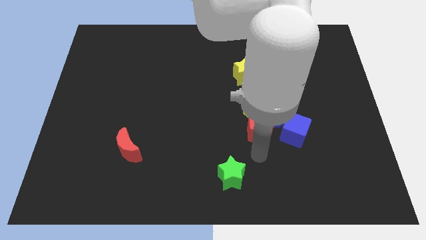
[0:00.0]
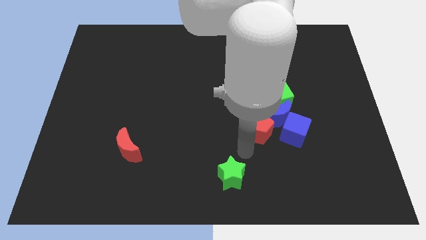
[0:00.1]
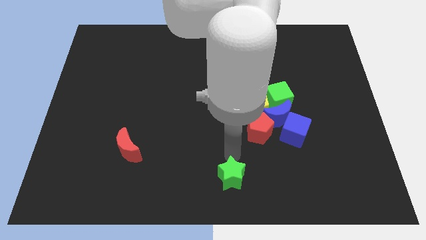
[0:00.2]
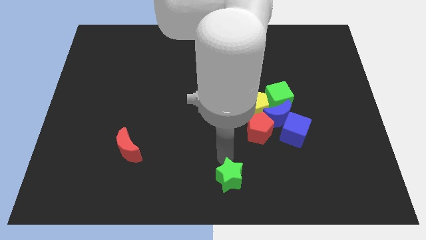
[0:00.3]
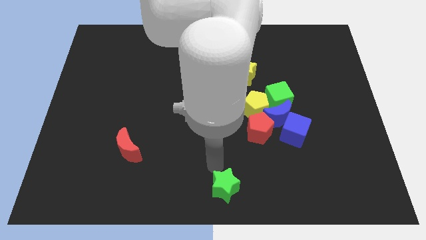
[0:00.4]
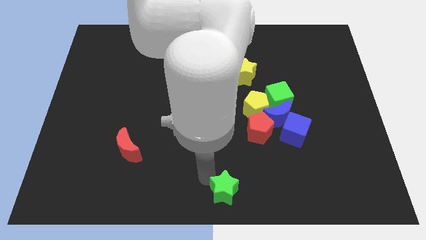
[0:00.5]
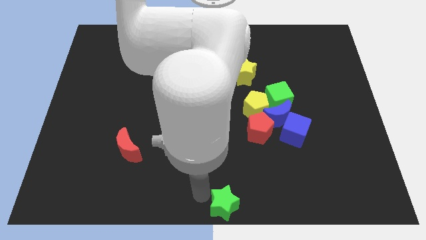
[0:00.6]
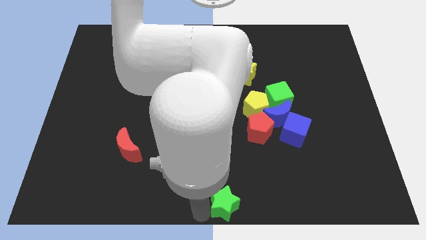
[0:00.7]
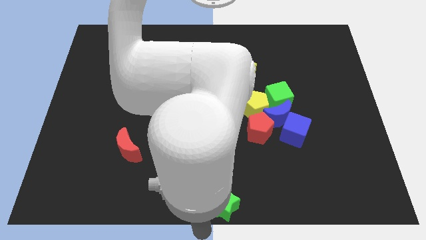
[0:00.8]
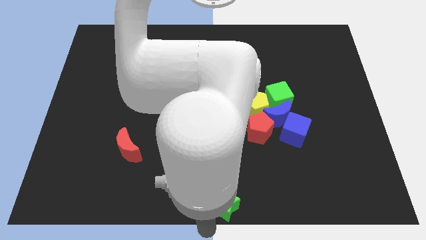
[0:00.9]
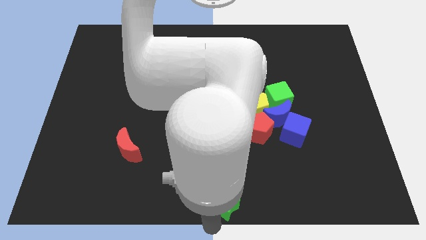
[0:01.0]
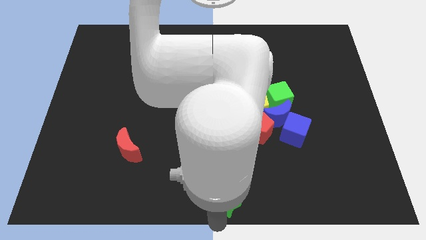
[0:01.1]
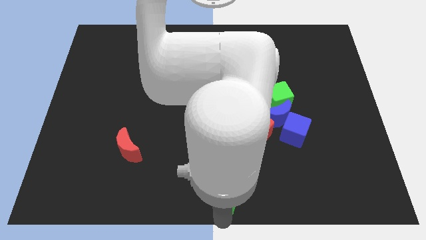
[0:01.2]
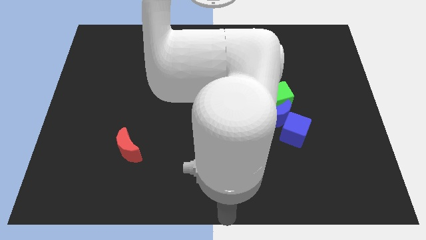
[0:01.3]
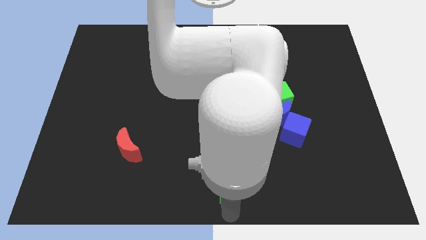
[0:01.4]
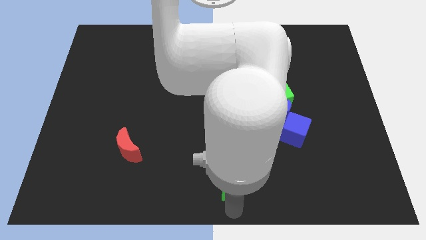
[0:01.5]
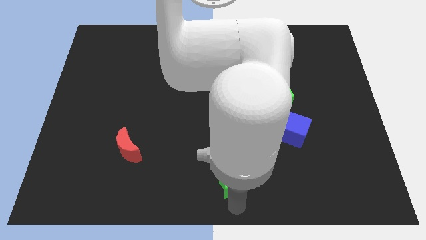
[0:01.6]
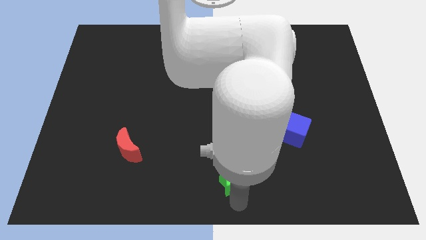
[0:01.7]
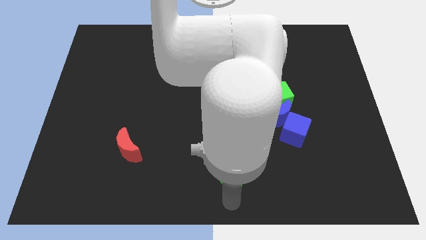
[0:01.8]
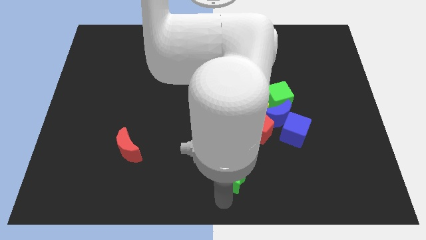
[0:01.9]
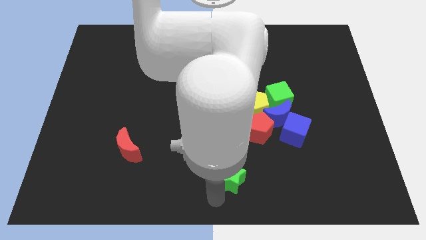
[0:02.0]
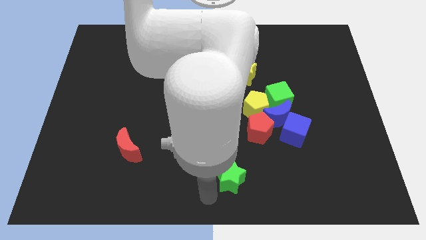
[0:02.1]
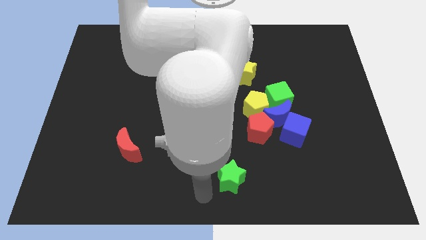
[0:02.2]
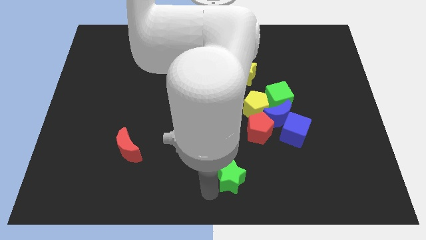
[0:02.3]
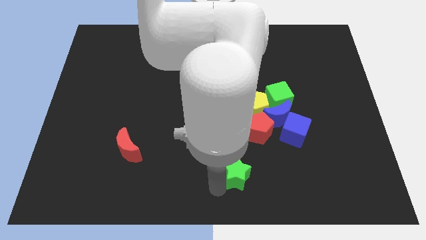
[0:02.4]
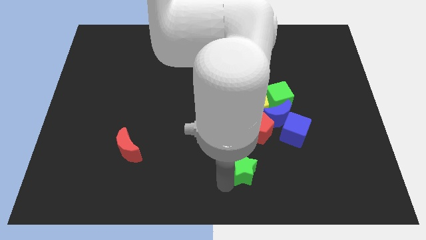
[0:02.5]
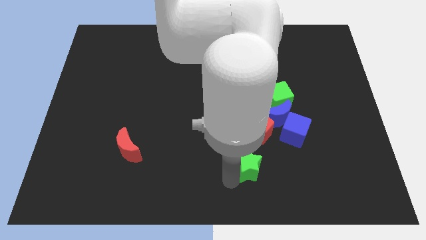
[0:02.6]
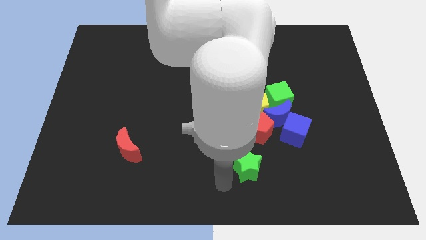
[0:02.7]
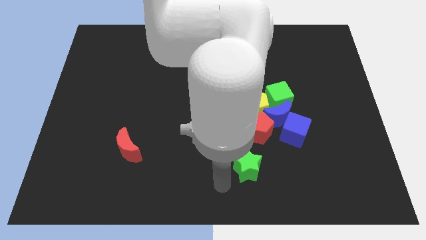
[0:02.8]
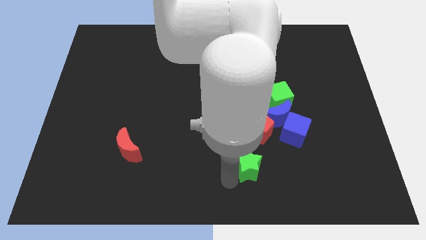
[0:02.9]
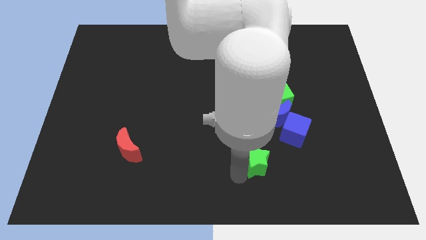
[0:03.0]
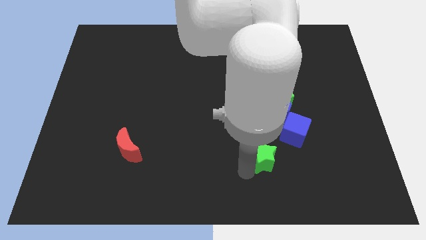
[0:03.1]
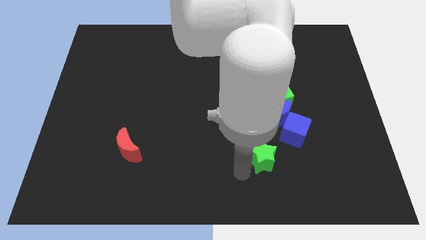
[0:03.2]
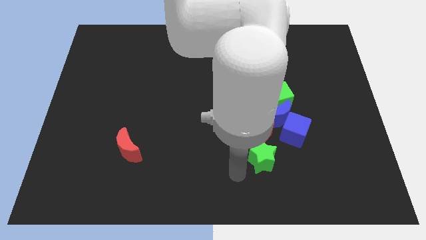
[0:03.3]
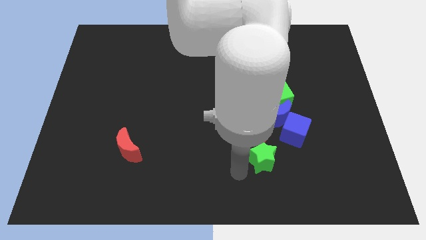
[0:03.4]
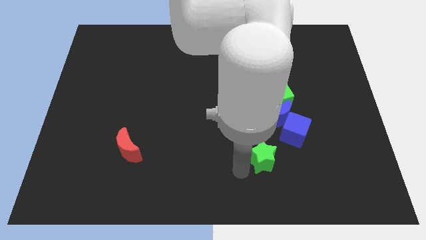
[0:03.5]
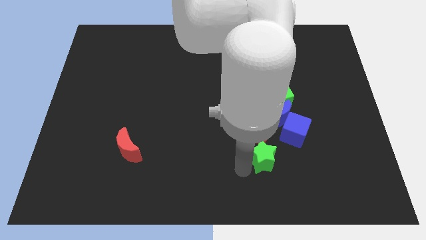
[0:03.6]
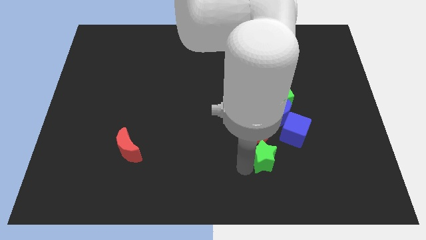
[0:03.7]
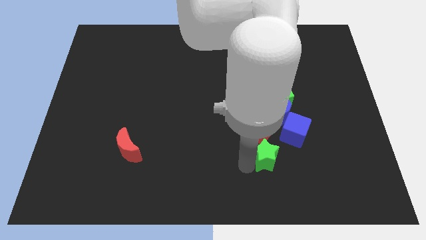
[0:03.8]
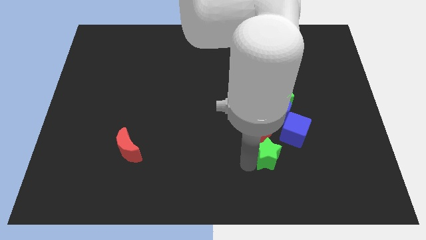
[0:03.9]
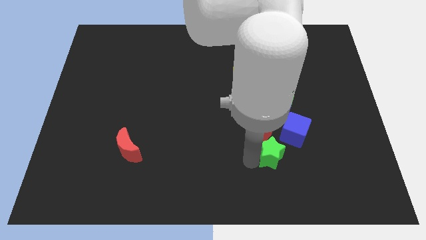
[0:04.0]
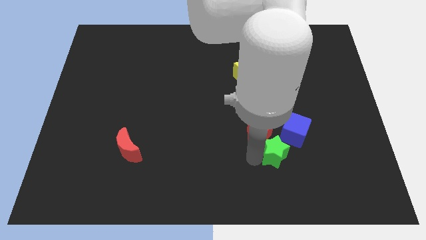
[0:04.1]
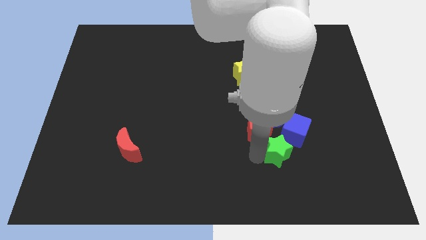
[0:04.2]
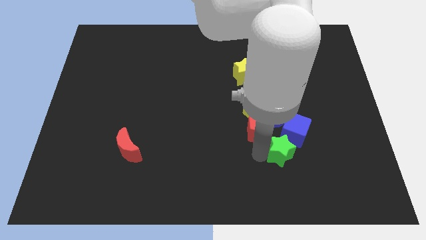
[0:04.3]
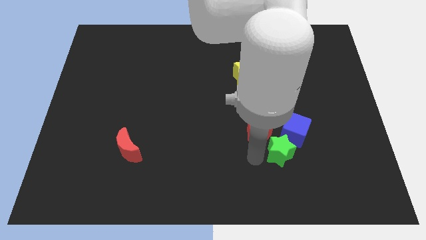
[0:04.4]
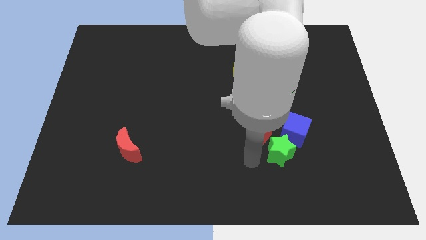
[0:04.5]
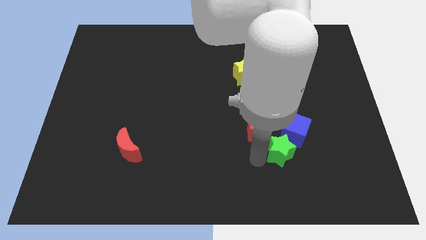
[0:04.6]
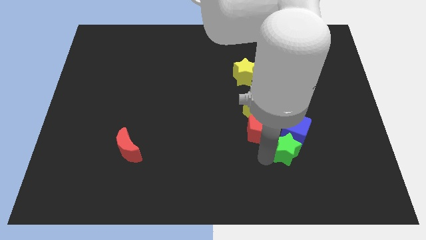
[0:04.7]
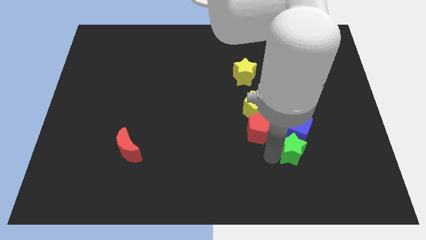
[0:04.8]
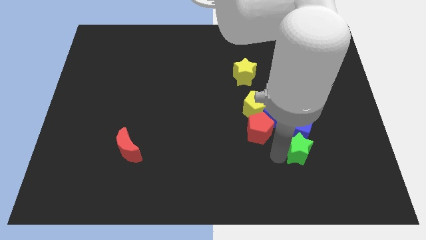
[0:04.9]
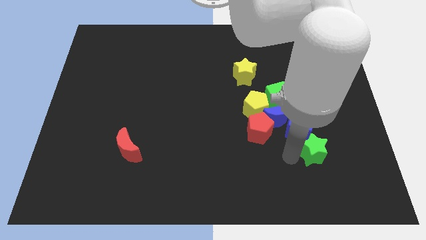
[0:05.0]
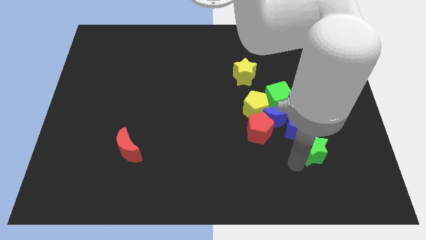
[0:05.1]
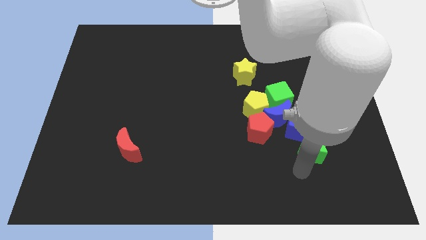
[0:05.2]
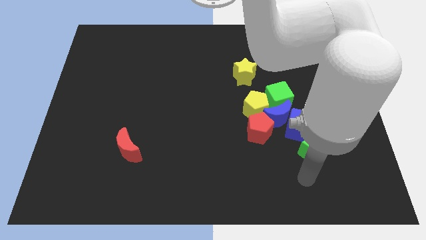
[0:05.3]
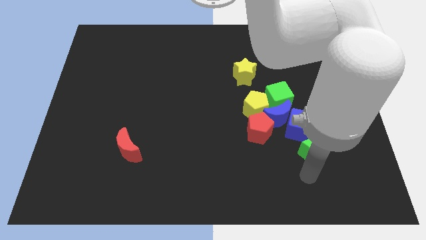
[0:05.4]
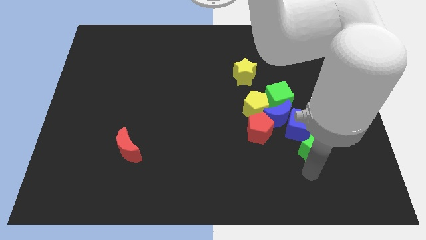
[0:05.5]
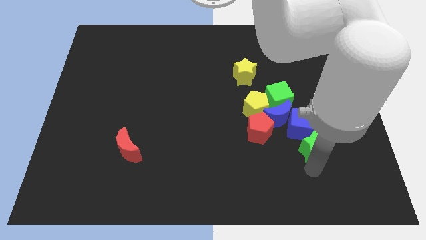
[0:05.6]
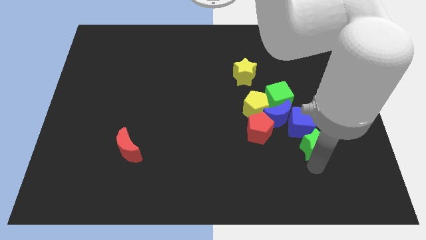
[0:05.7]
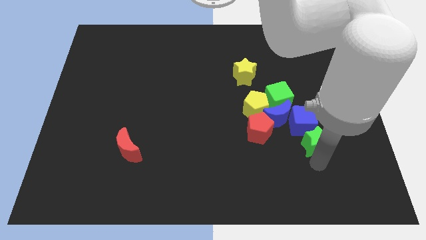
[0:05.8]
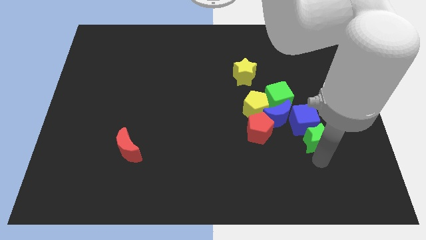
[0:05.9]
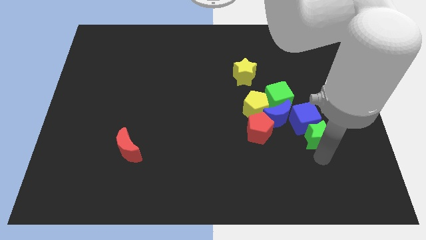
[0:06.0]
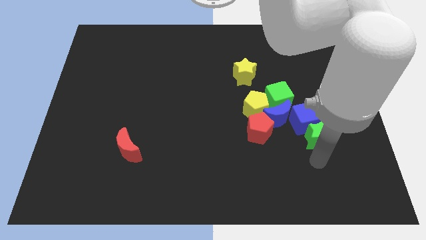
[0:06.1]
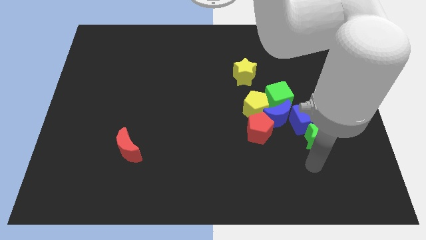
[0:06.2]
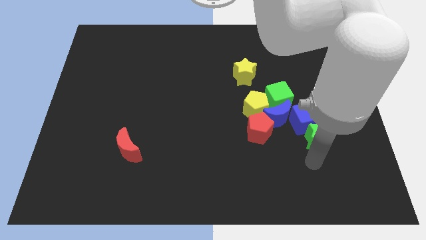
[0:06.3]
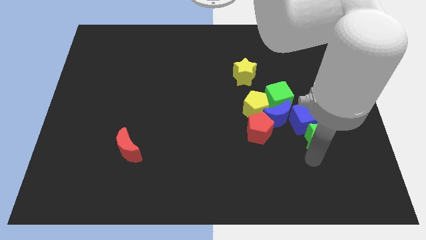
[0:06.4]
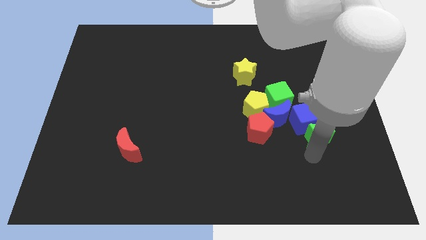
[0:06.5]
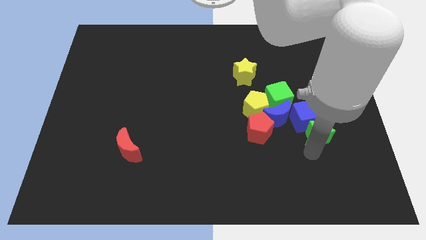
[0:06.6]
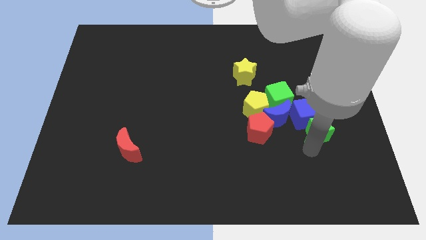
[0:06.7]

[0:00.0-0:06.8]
move the green star to the right side of the blue moon
